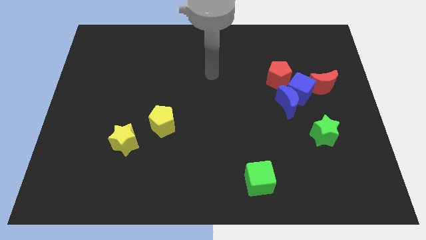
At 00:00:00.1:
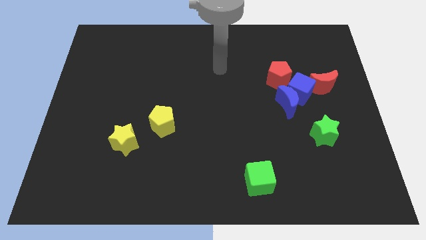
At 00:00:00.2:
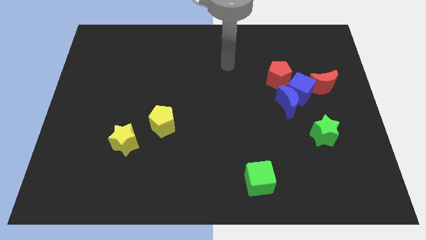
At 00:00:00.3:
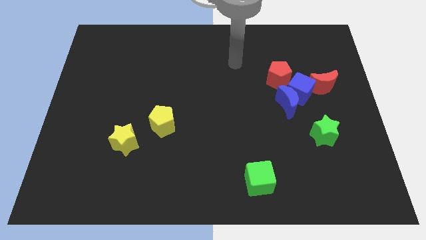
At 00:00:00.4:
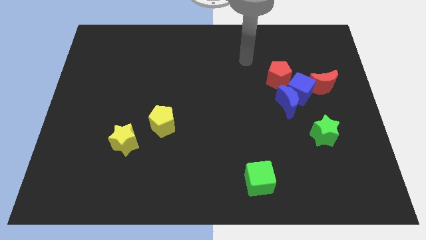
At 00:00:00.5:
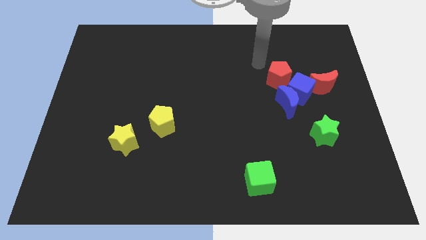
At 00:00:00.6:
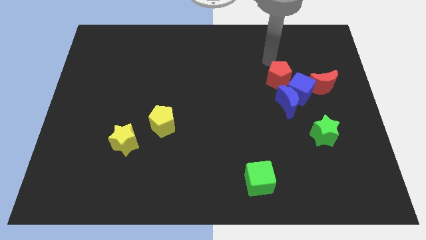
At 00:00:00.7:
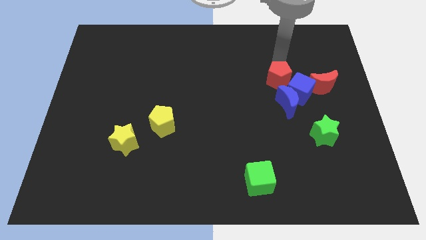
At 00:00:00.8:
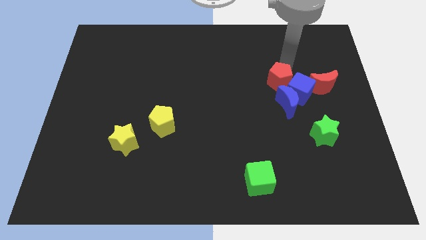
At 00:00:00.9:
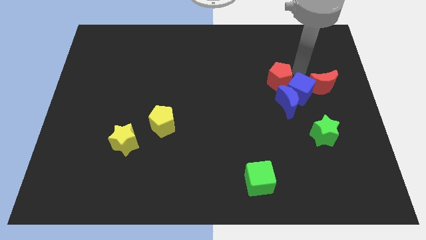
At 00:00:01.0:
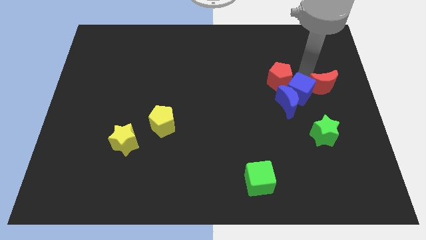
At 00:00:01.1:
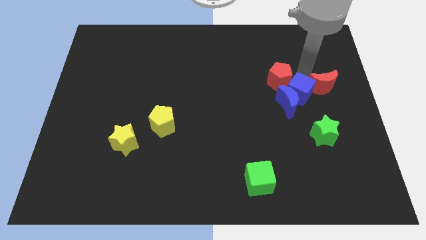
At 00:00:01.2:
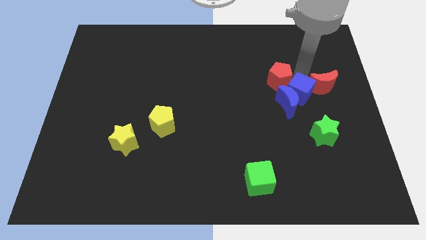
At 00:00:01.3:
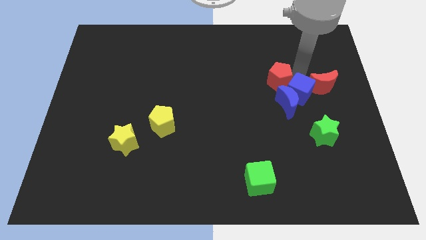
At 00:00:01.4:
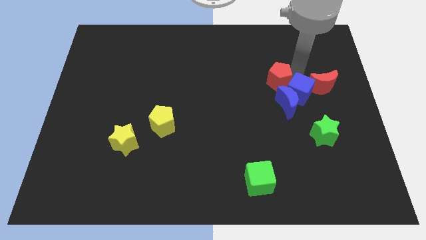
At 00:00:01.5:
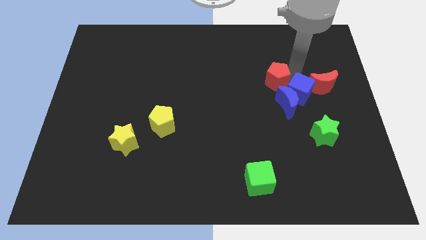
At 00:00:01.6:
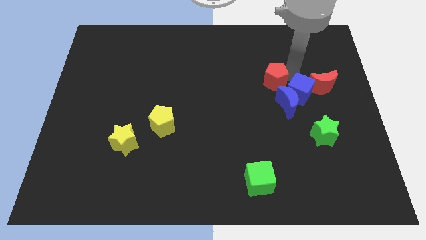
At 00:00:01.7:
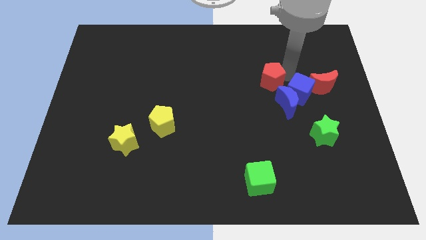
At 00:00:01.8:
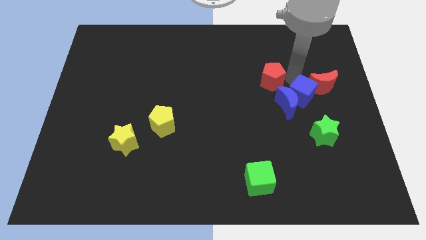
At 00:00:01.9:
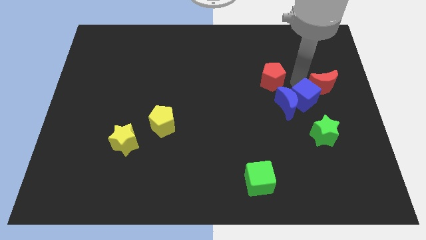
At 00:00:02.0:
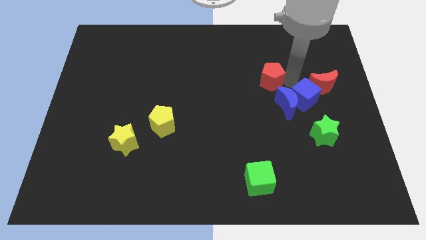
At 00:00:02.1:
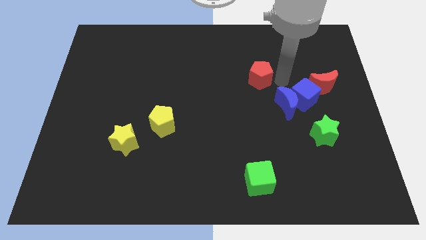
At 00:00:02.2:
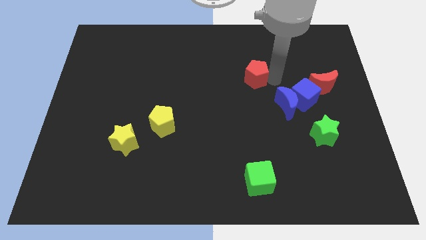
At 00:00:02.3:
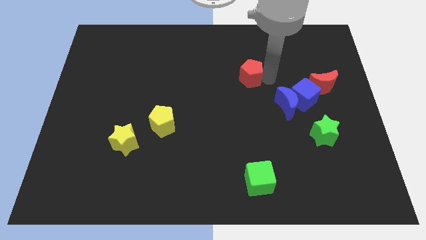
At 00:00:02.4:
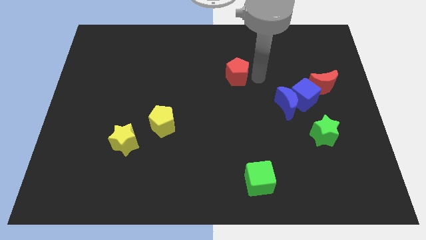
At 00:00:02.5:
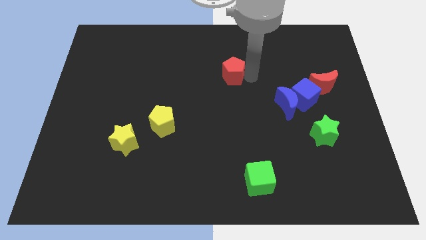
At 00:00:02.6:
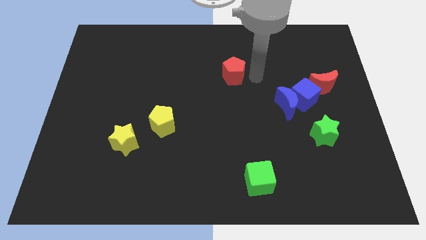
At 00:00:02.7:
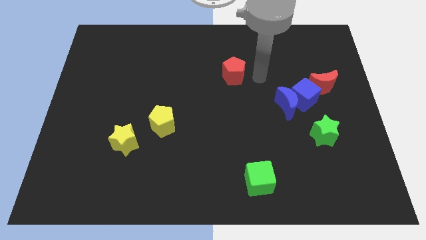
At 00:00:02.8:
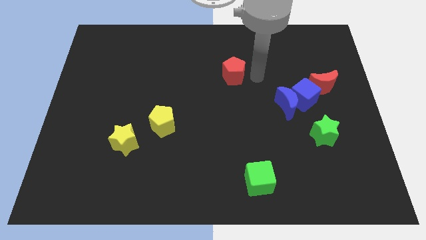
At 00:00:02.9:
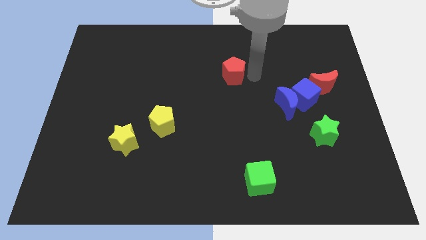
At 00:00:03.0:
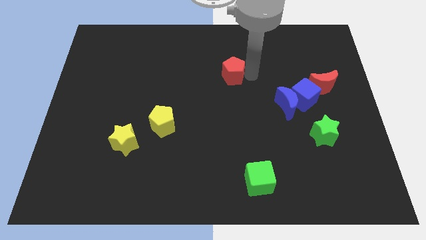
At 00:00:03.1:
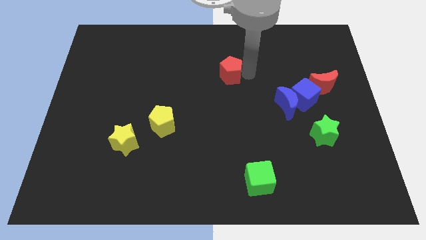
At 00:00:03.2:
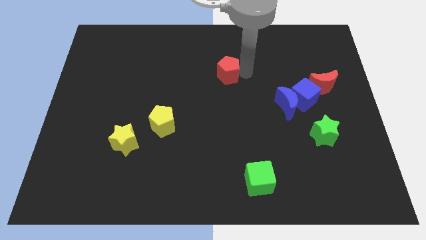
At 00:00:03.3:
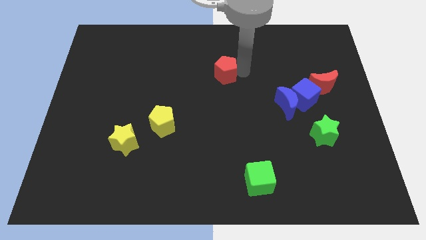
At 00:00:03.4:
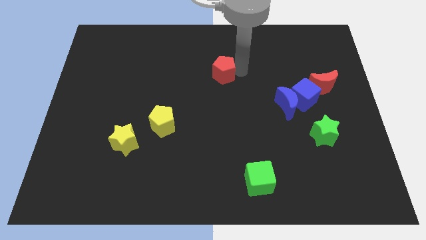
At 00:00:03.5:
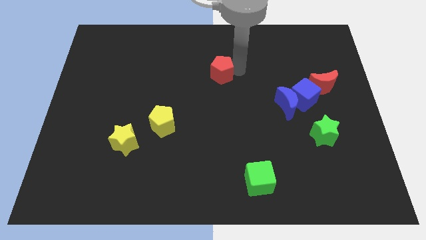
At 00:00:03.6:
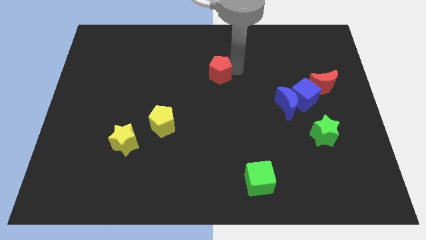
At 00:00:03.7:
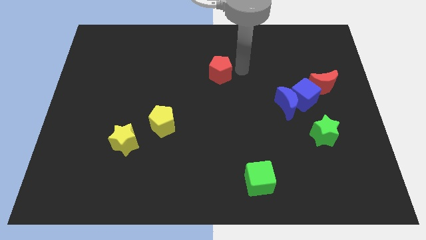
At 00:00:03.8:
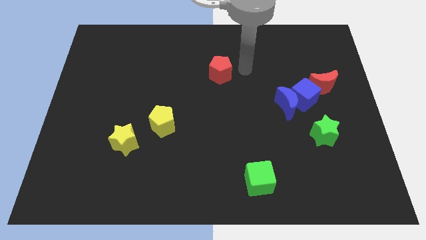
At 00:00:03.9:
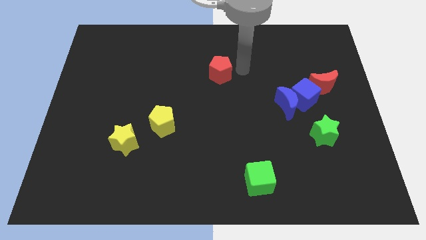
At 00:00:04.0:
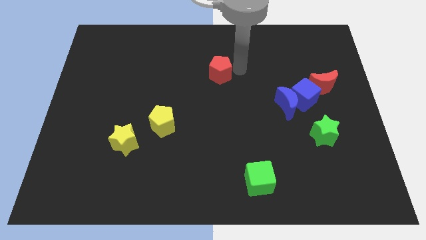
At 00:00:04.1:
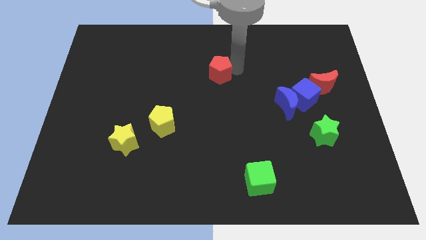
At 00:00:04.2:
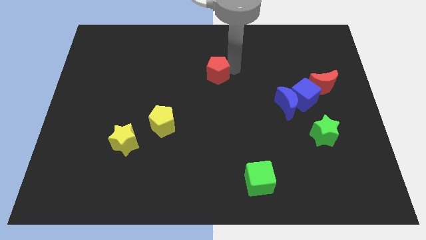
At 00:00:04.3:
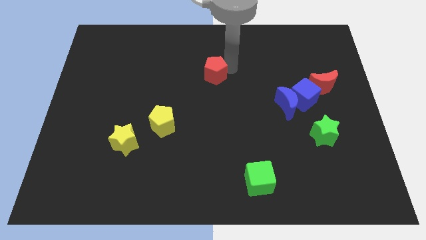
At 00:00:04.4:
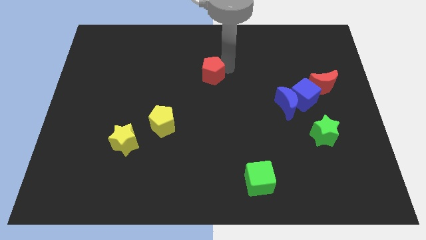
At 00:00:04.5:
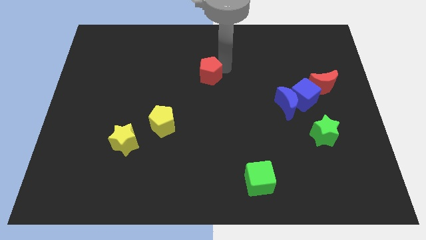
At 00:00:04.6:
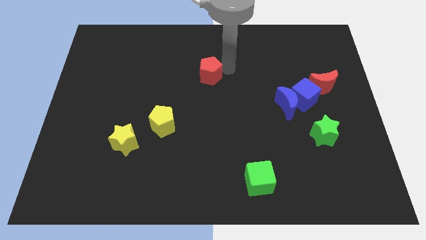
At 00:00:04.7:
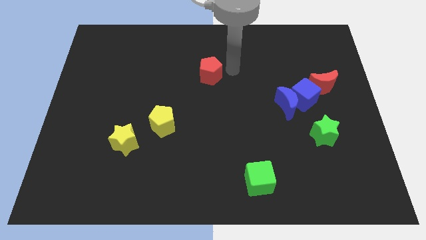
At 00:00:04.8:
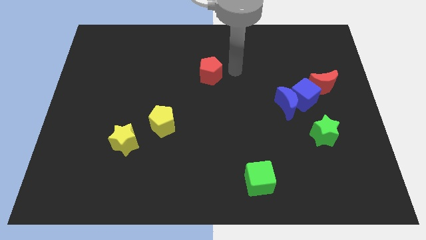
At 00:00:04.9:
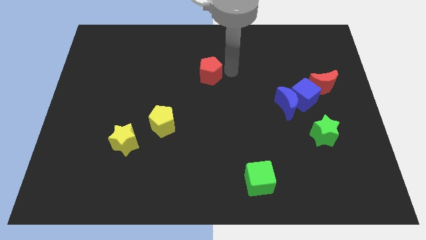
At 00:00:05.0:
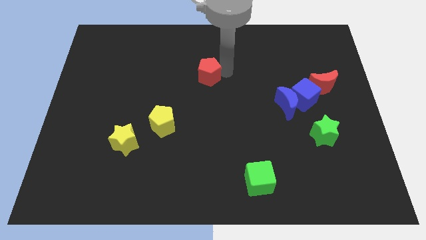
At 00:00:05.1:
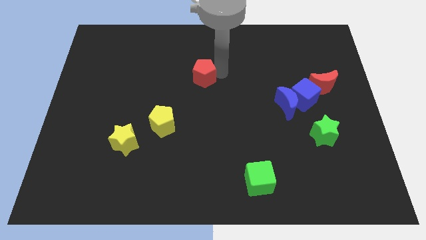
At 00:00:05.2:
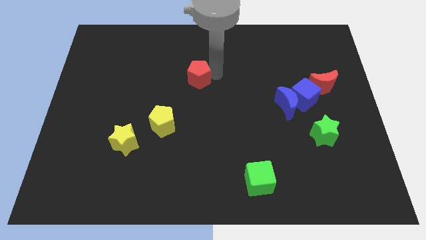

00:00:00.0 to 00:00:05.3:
slide the red pentagon to the left

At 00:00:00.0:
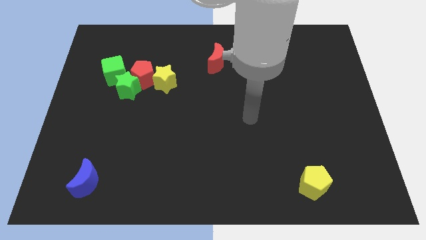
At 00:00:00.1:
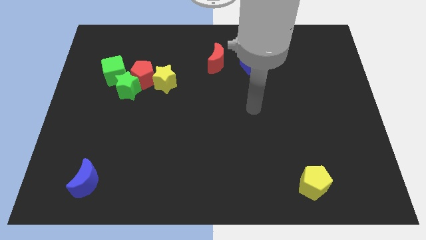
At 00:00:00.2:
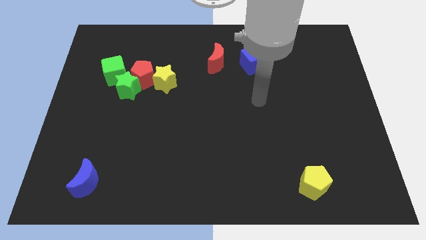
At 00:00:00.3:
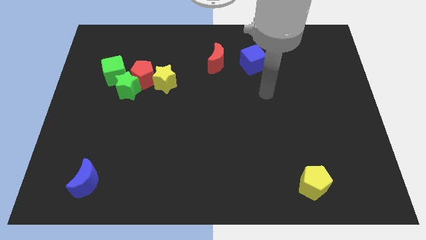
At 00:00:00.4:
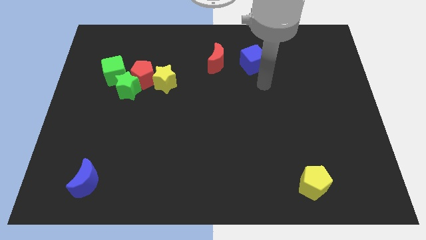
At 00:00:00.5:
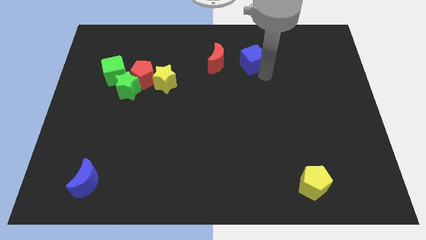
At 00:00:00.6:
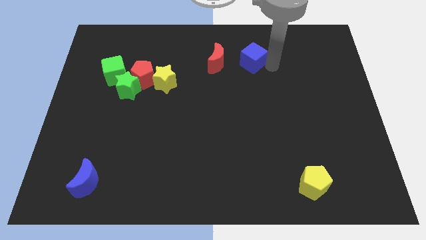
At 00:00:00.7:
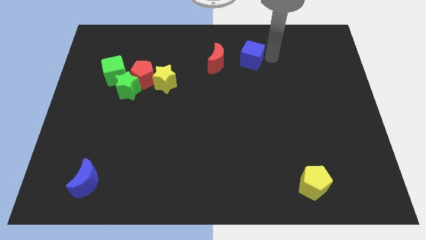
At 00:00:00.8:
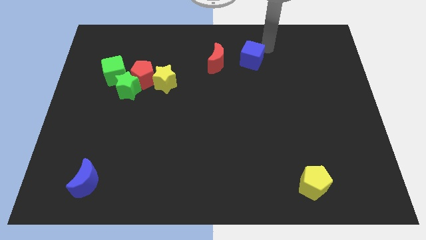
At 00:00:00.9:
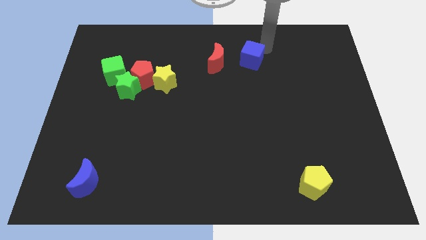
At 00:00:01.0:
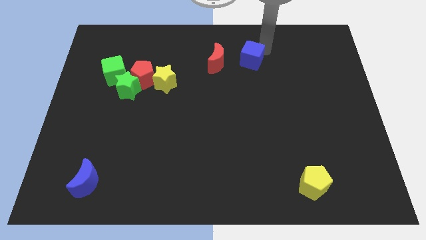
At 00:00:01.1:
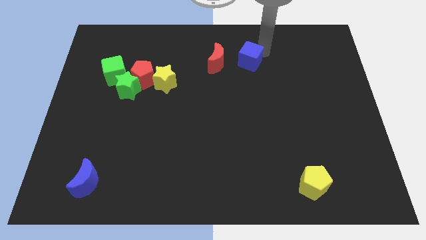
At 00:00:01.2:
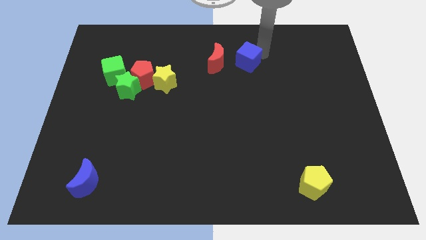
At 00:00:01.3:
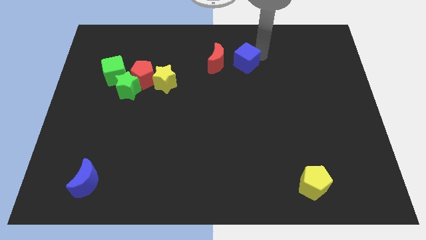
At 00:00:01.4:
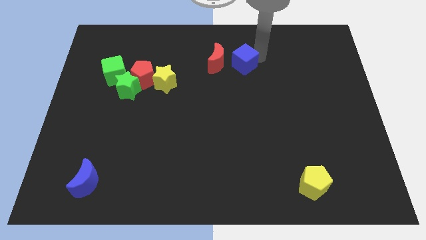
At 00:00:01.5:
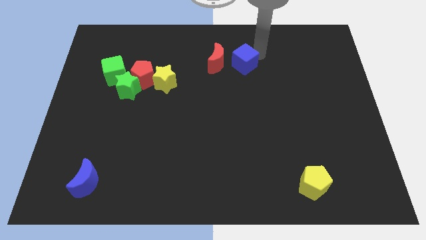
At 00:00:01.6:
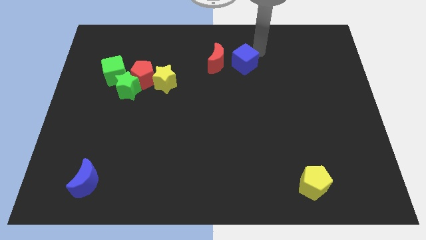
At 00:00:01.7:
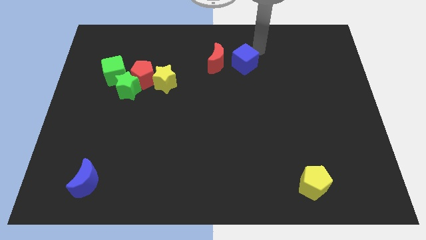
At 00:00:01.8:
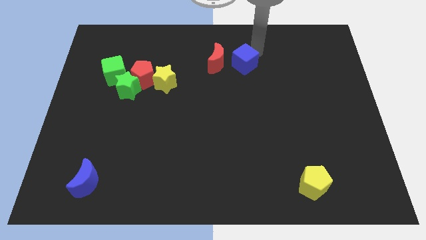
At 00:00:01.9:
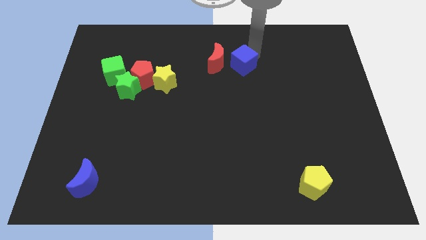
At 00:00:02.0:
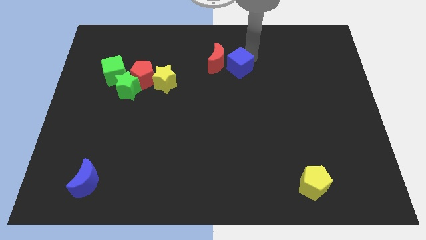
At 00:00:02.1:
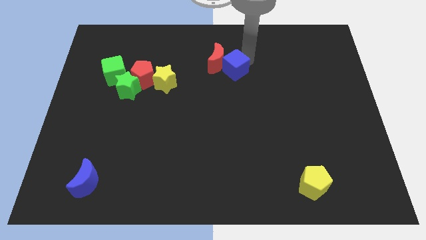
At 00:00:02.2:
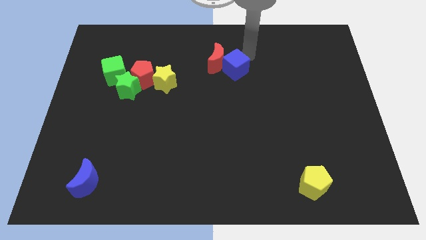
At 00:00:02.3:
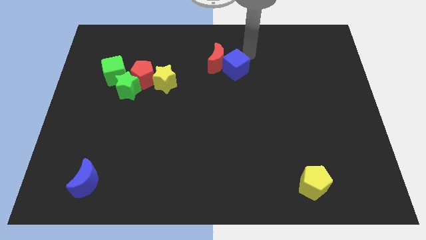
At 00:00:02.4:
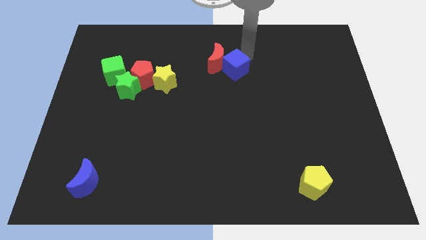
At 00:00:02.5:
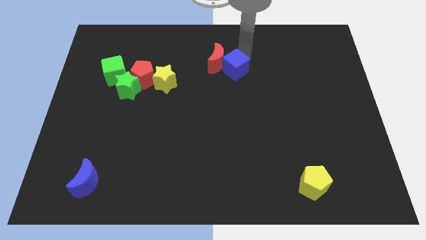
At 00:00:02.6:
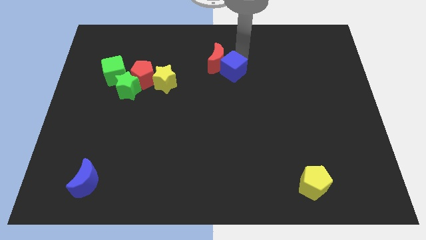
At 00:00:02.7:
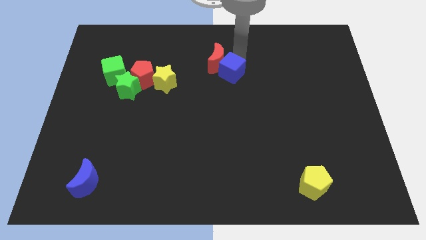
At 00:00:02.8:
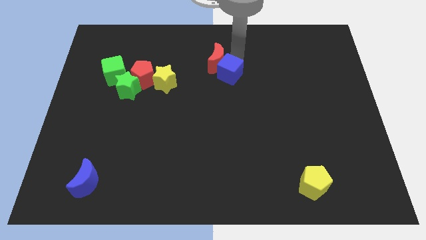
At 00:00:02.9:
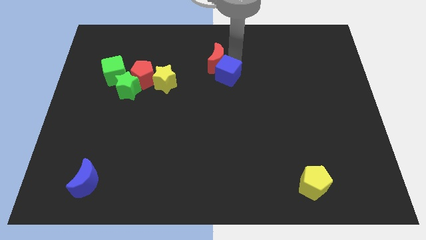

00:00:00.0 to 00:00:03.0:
slide the blue cube downwards and left diagonally a little
